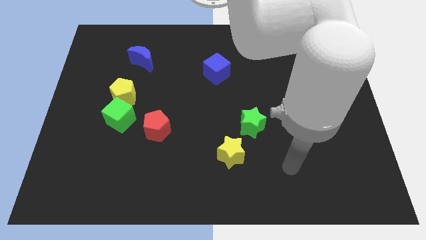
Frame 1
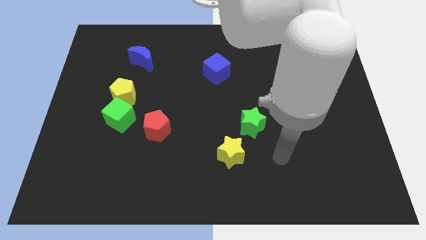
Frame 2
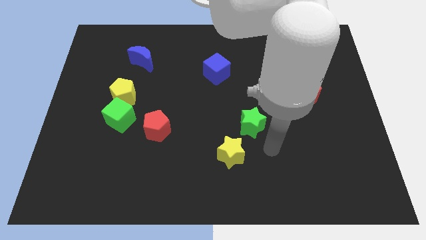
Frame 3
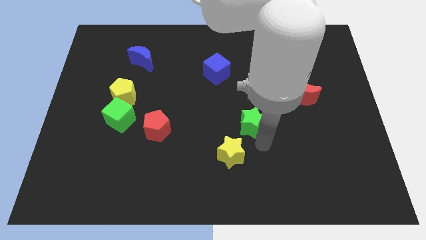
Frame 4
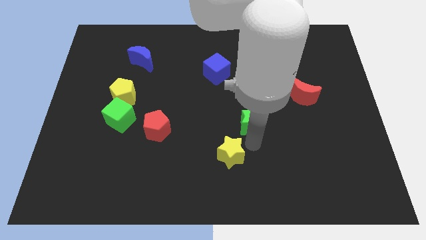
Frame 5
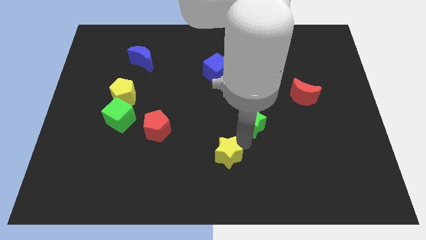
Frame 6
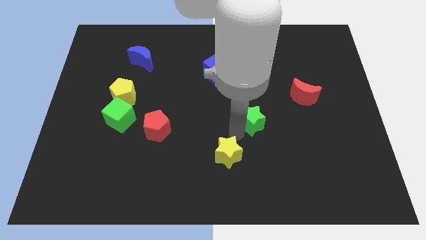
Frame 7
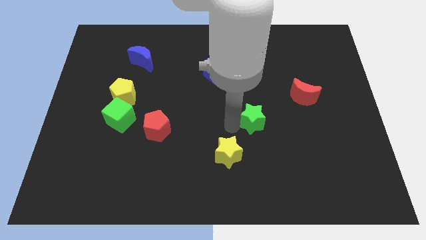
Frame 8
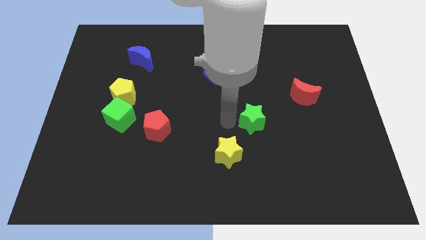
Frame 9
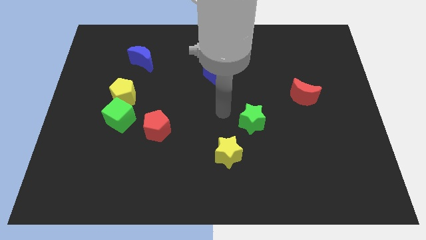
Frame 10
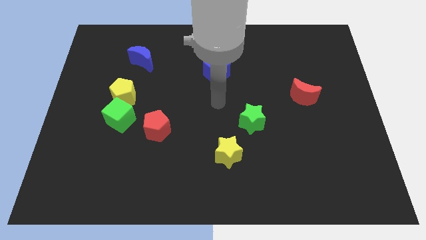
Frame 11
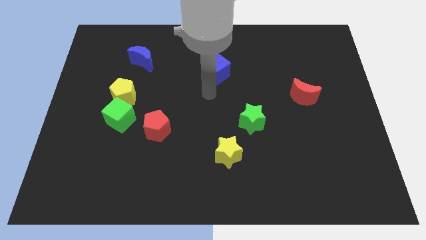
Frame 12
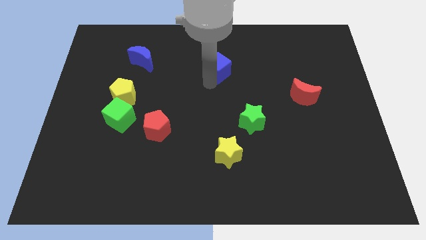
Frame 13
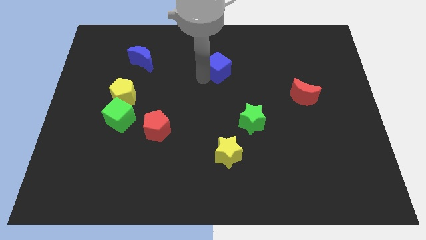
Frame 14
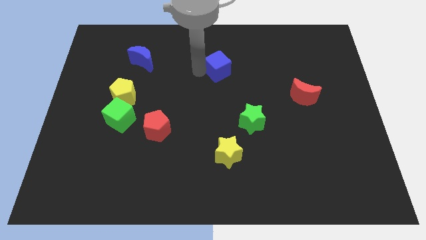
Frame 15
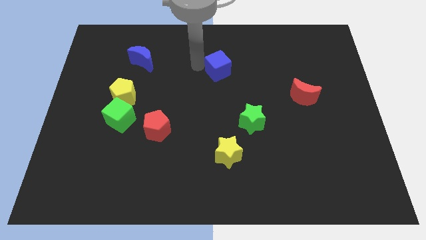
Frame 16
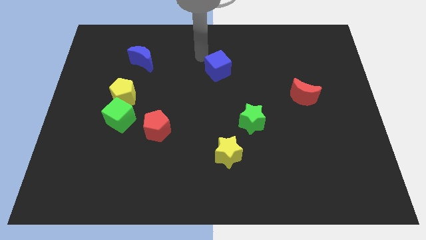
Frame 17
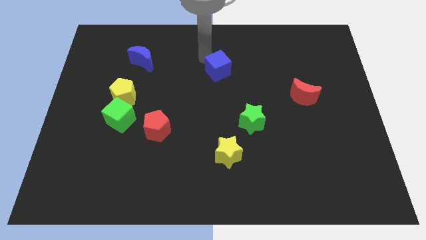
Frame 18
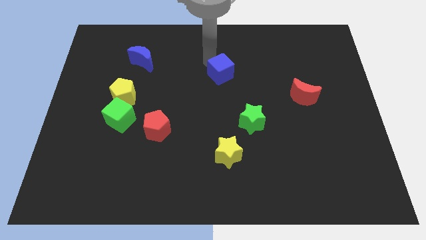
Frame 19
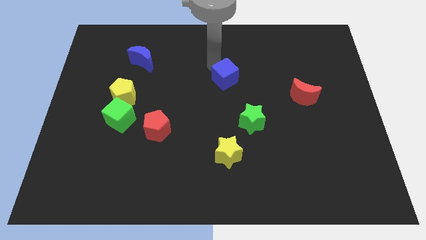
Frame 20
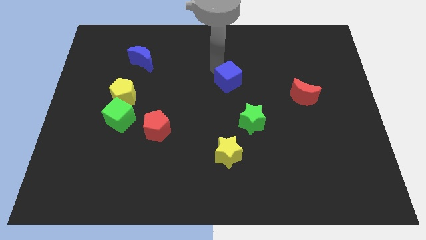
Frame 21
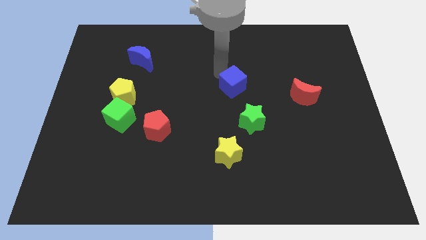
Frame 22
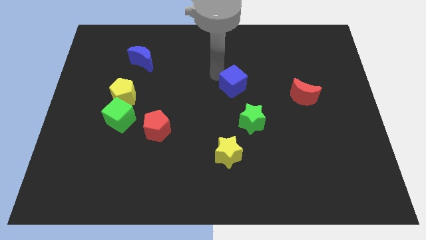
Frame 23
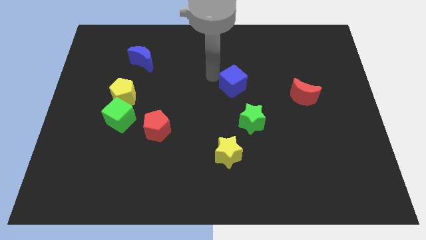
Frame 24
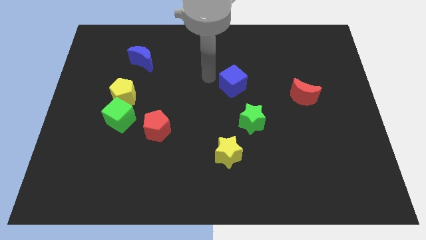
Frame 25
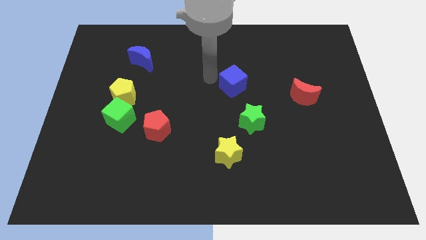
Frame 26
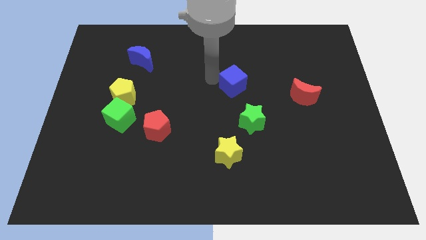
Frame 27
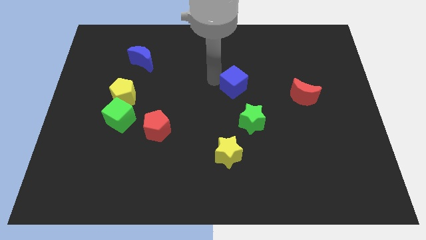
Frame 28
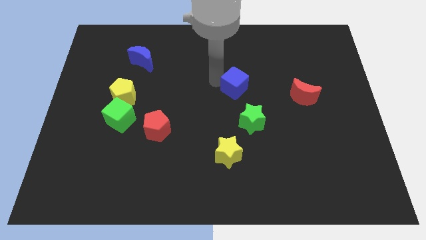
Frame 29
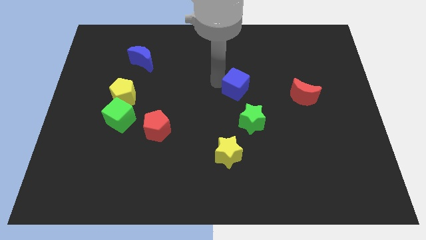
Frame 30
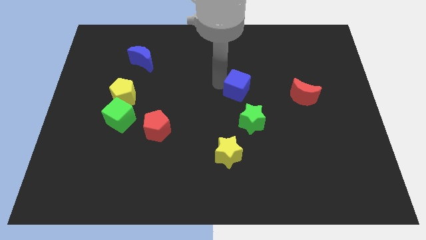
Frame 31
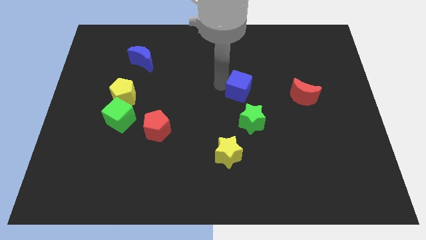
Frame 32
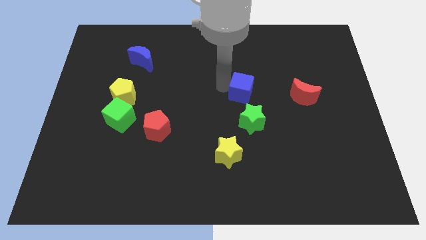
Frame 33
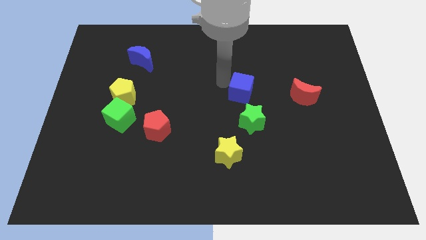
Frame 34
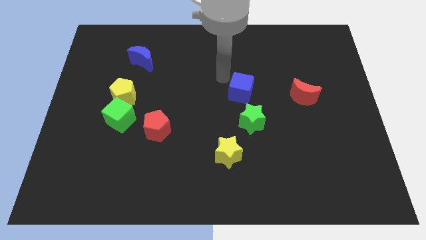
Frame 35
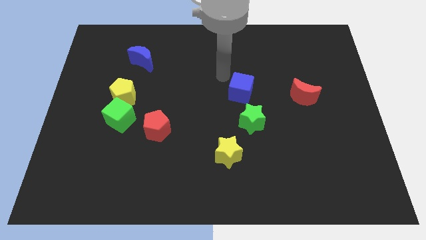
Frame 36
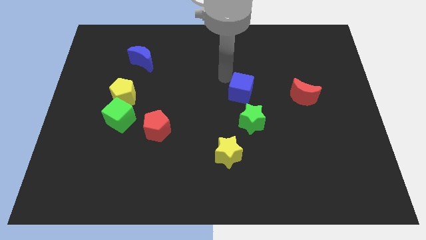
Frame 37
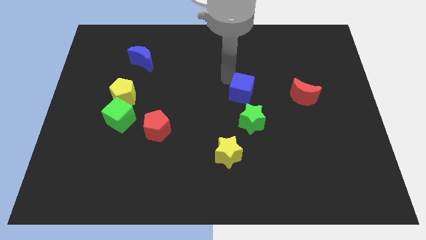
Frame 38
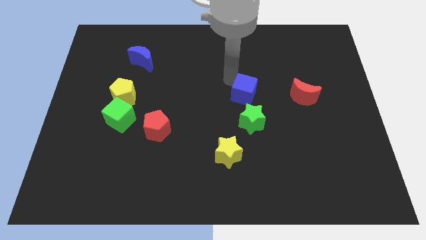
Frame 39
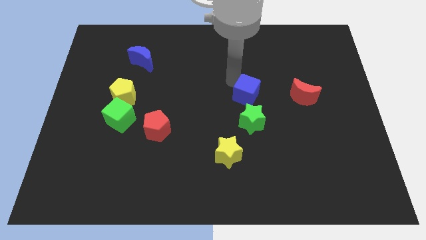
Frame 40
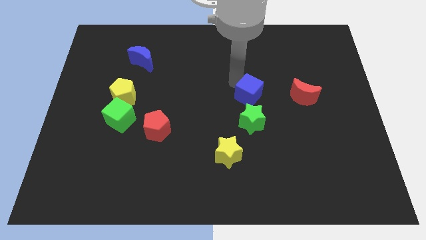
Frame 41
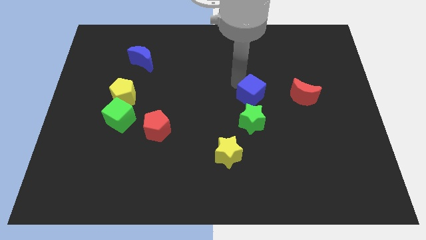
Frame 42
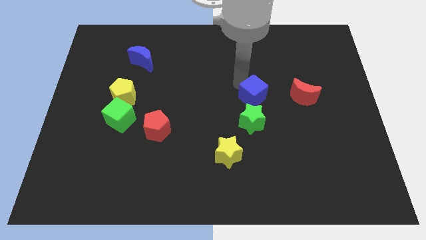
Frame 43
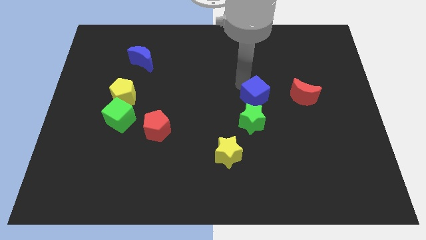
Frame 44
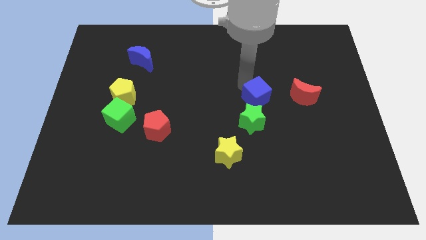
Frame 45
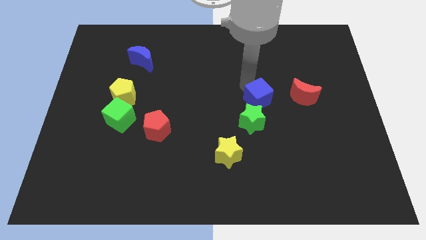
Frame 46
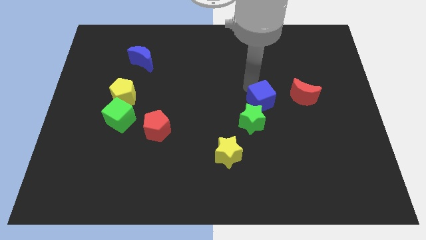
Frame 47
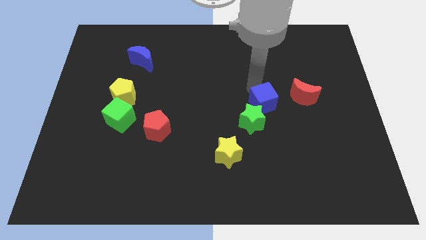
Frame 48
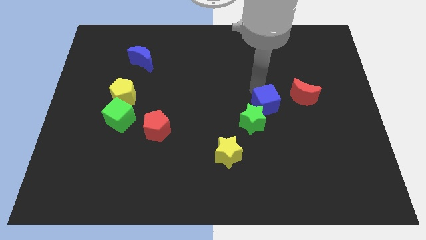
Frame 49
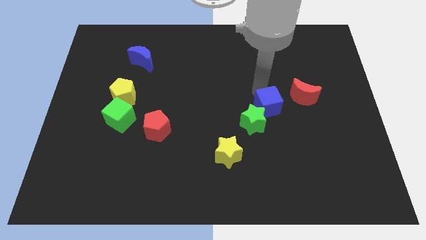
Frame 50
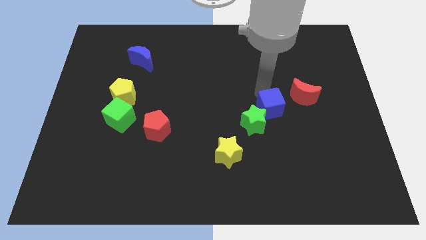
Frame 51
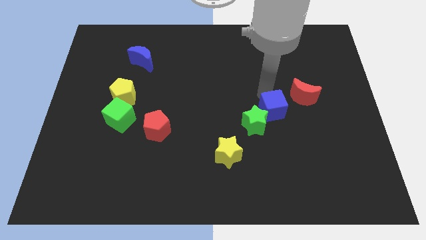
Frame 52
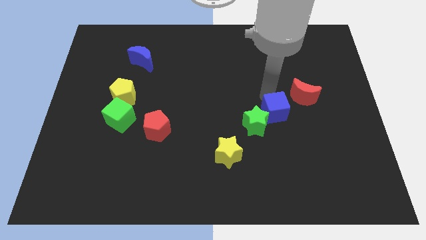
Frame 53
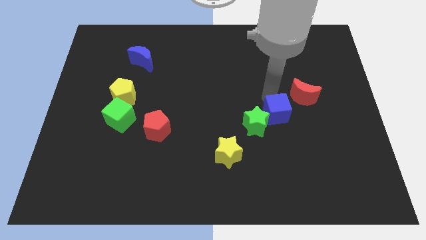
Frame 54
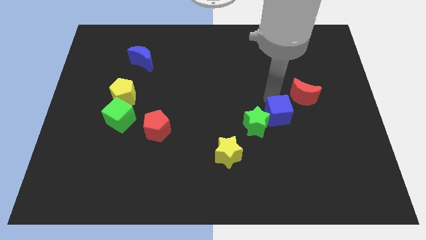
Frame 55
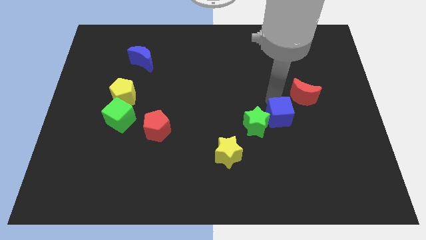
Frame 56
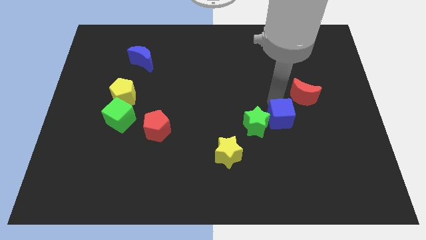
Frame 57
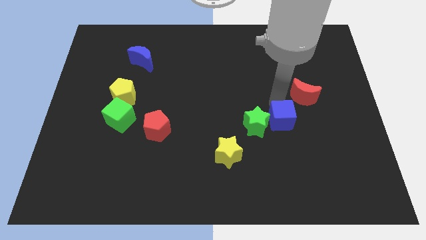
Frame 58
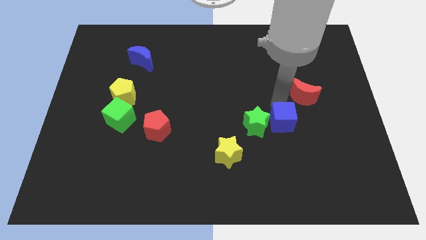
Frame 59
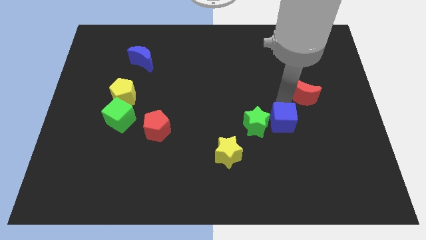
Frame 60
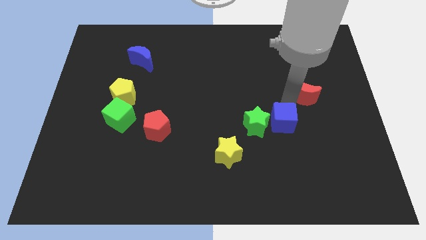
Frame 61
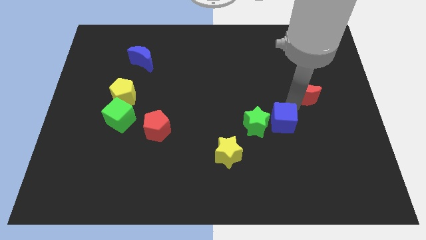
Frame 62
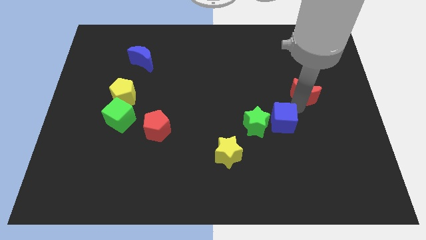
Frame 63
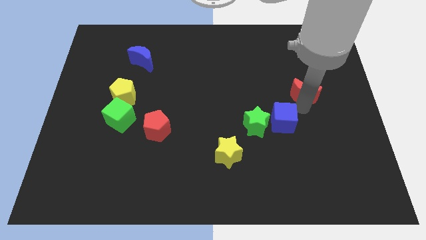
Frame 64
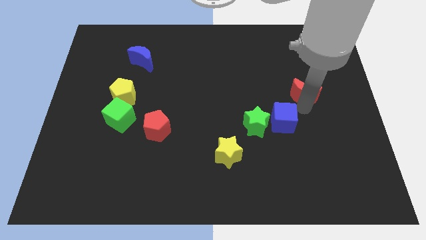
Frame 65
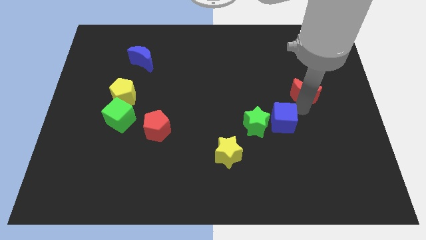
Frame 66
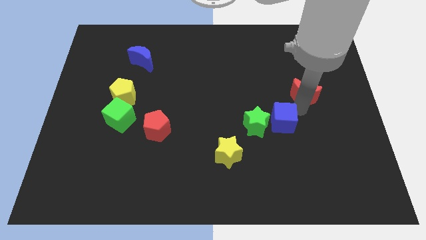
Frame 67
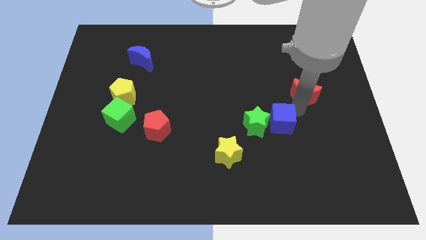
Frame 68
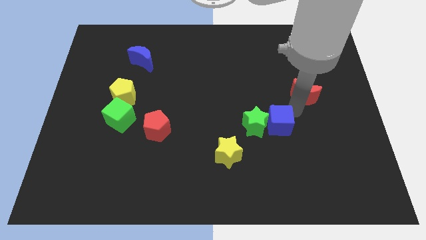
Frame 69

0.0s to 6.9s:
push the blue cube to the bottom right of the green star
